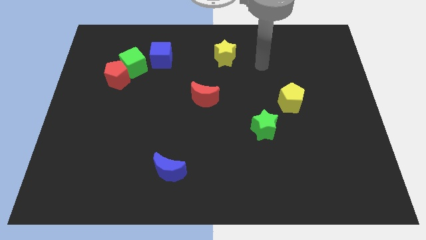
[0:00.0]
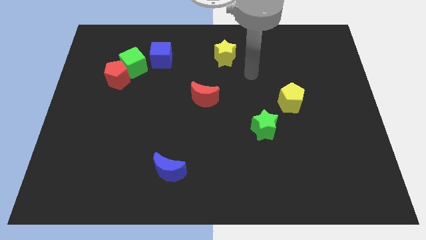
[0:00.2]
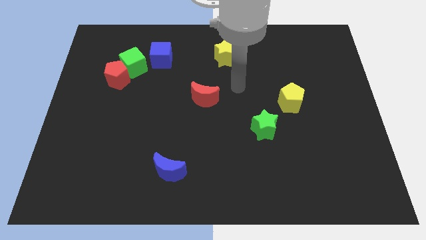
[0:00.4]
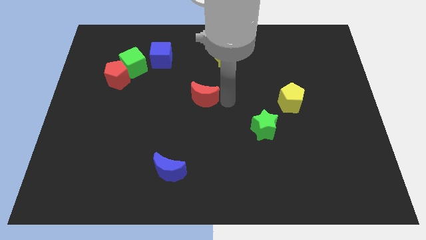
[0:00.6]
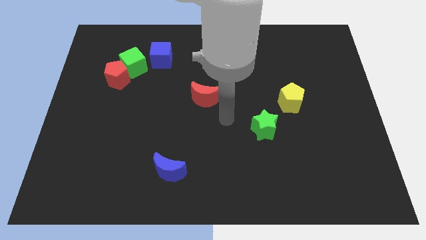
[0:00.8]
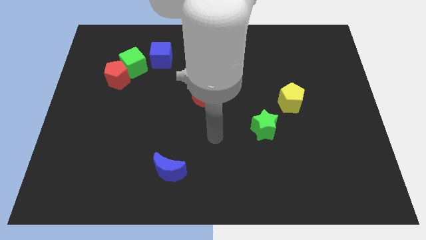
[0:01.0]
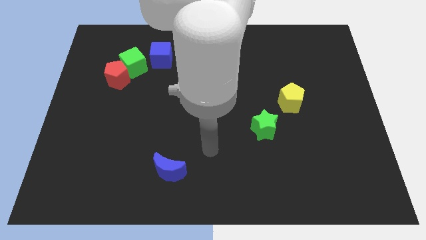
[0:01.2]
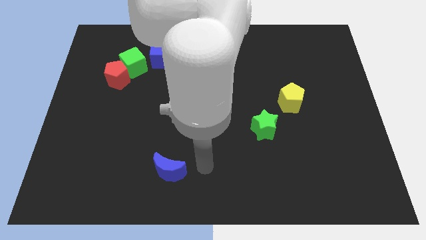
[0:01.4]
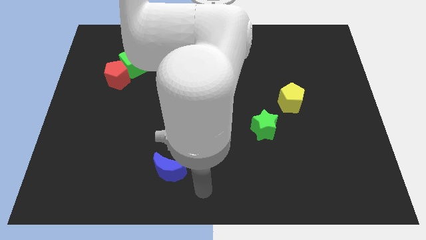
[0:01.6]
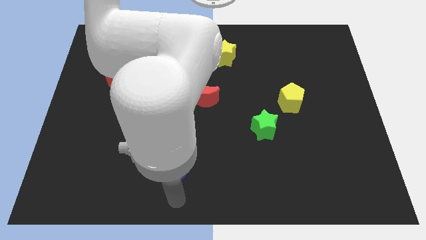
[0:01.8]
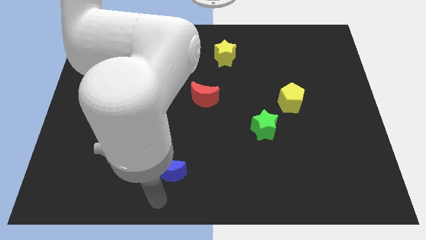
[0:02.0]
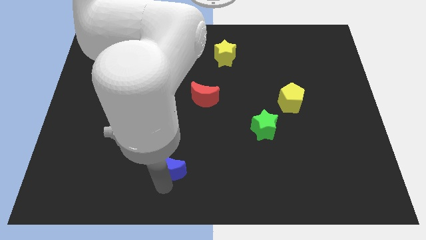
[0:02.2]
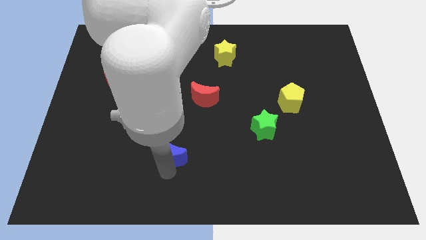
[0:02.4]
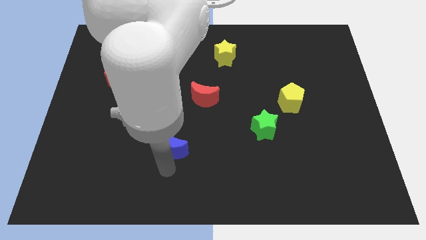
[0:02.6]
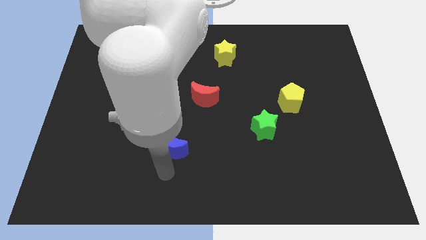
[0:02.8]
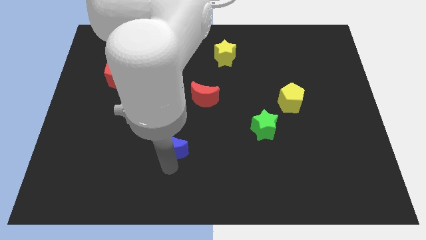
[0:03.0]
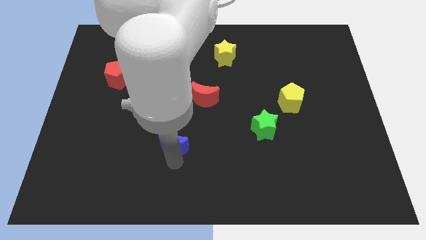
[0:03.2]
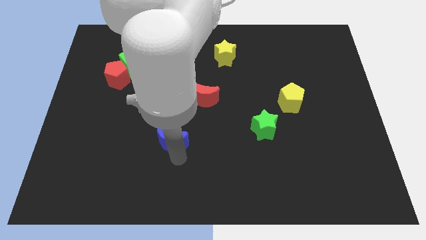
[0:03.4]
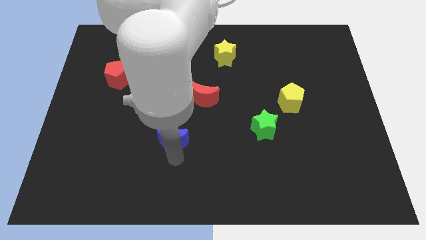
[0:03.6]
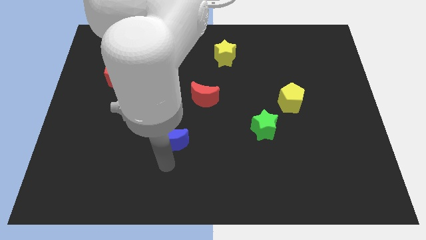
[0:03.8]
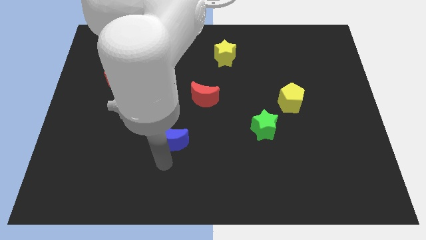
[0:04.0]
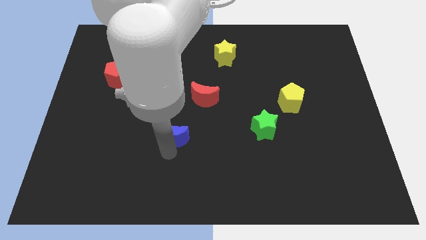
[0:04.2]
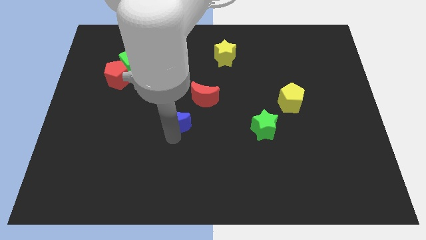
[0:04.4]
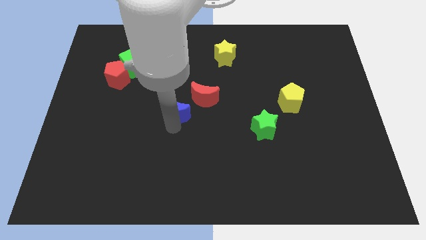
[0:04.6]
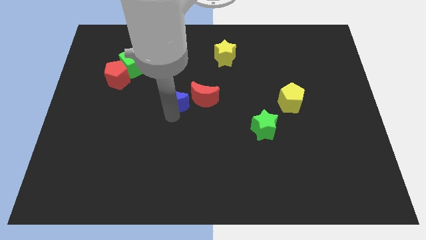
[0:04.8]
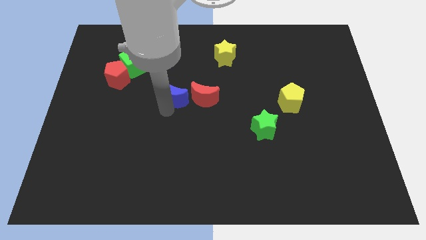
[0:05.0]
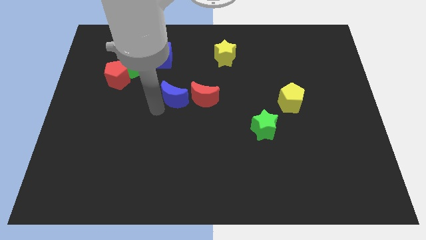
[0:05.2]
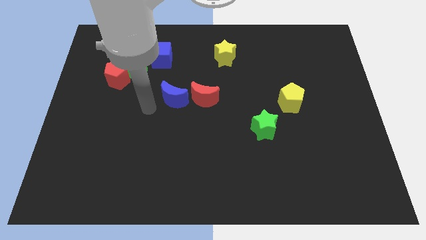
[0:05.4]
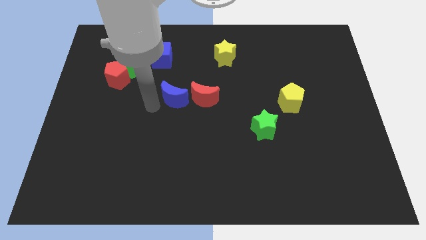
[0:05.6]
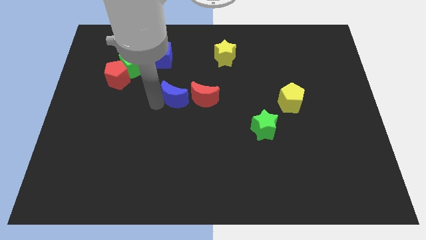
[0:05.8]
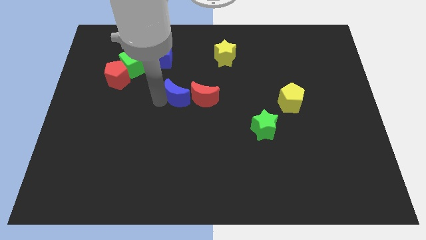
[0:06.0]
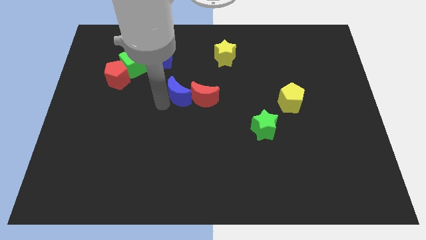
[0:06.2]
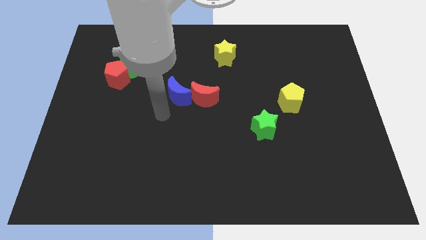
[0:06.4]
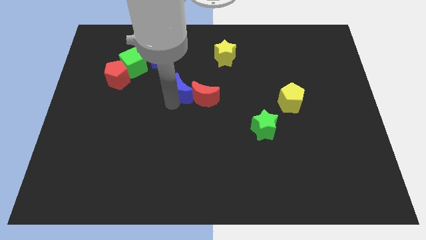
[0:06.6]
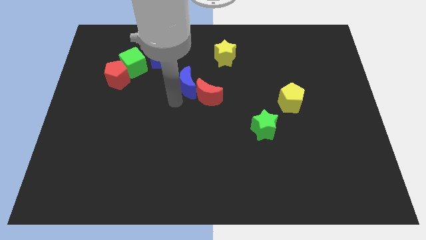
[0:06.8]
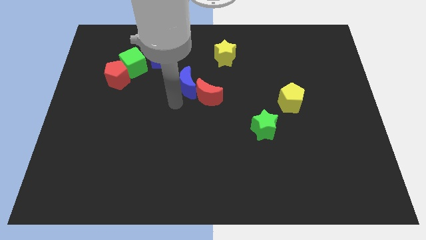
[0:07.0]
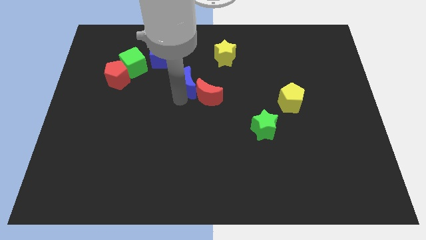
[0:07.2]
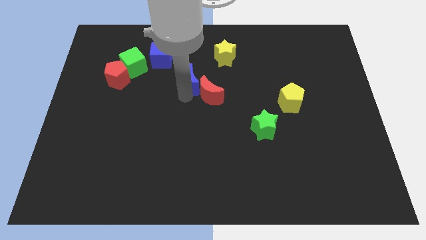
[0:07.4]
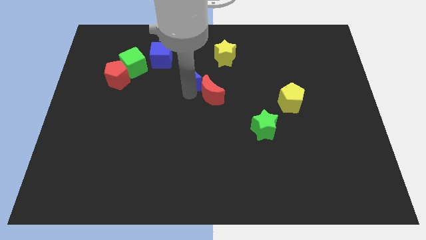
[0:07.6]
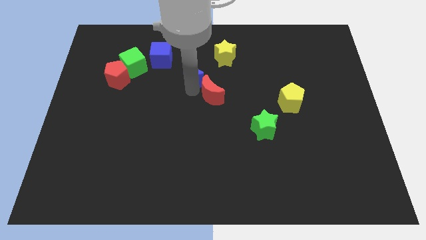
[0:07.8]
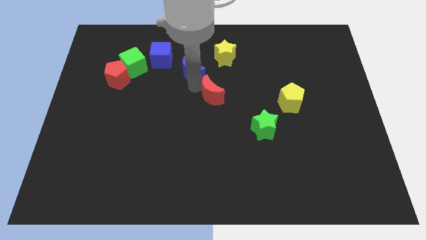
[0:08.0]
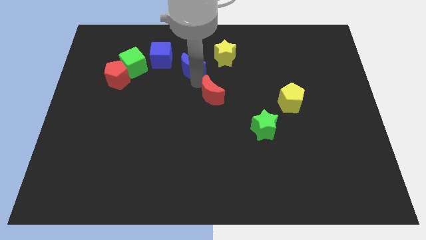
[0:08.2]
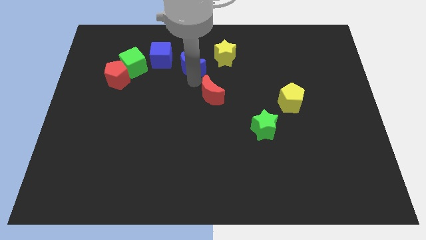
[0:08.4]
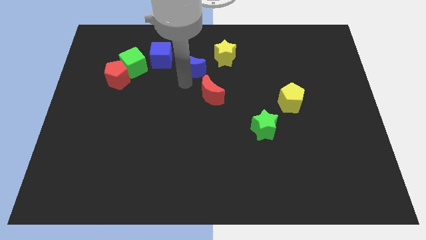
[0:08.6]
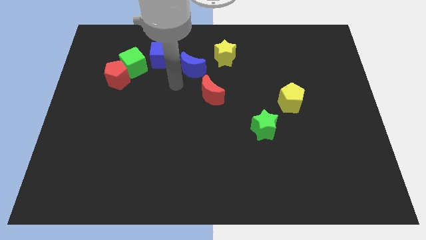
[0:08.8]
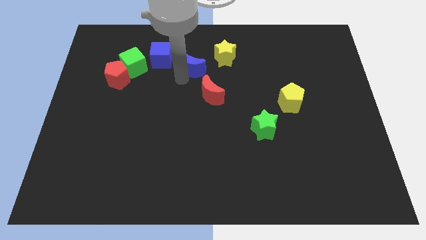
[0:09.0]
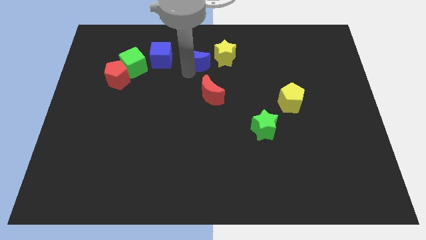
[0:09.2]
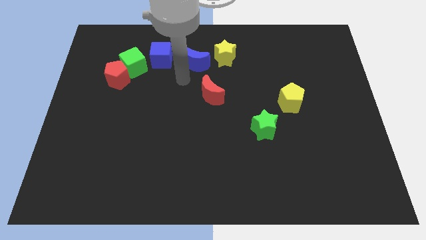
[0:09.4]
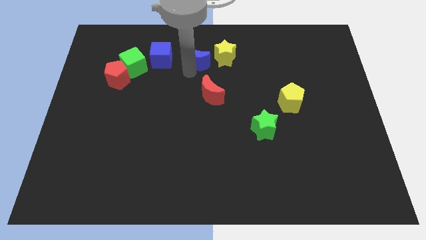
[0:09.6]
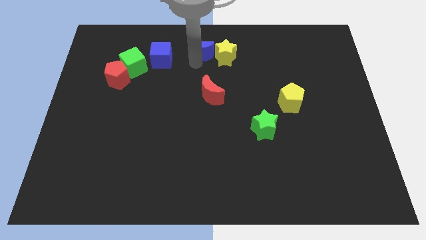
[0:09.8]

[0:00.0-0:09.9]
push the blue moon to the top side
